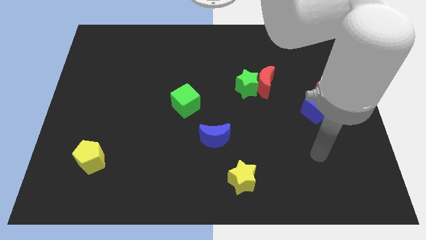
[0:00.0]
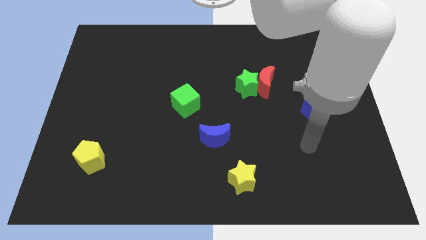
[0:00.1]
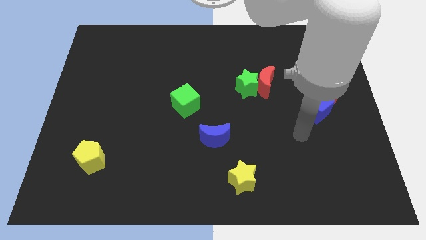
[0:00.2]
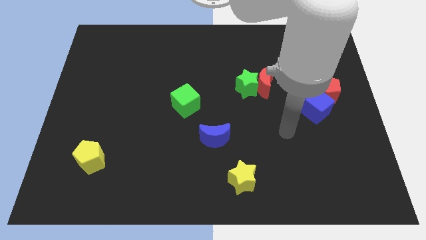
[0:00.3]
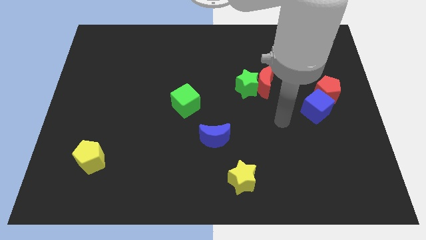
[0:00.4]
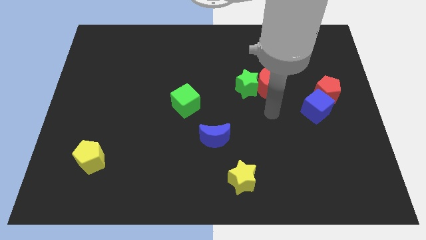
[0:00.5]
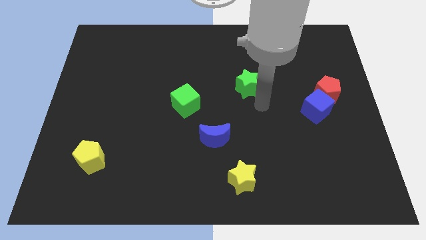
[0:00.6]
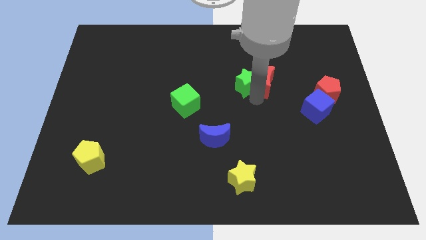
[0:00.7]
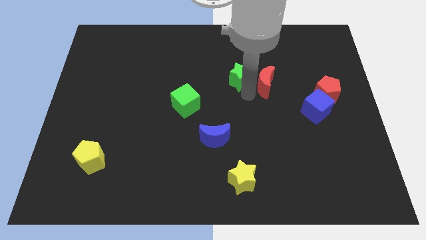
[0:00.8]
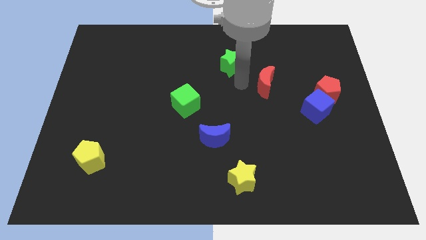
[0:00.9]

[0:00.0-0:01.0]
separate the red moon from the green star

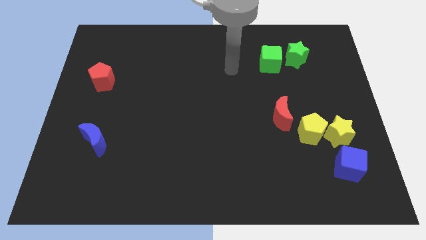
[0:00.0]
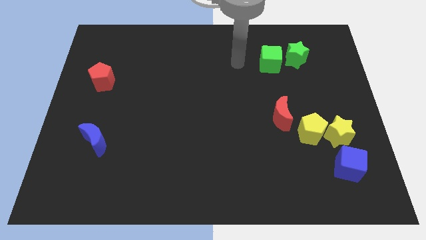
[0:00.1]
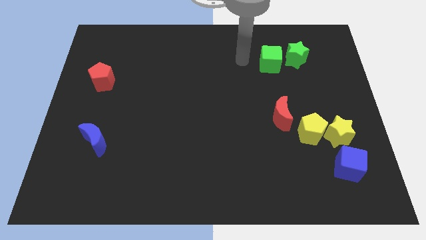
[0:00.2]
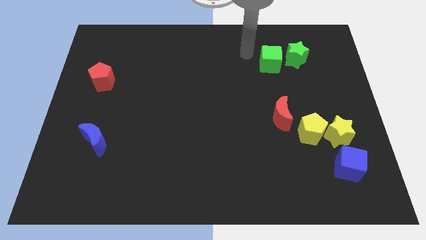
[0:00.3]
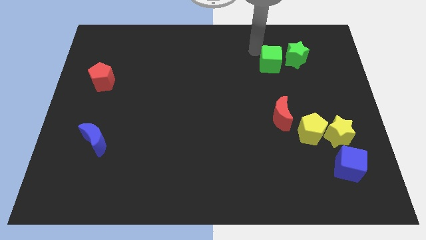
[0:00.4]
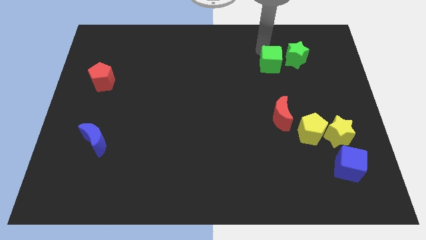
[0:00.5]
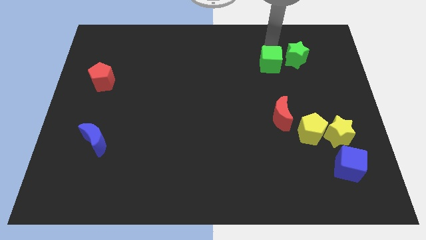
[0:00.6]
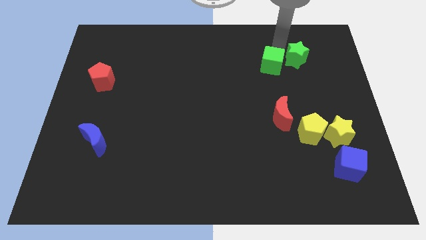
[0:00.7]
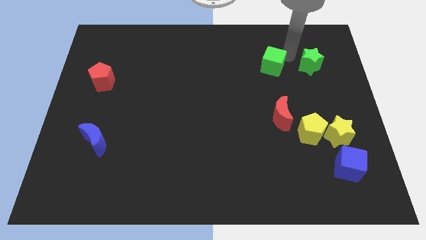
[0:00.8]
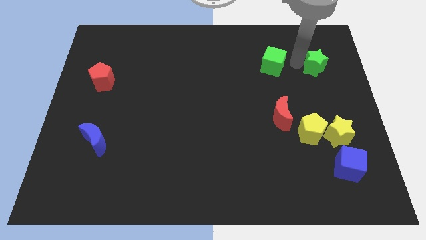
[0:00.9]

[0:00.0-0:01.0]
move the green cube away from the green star

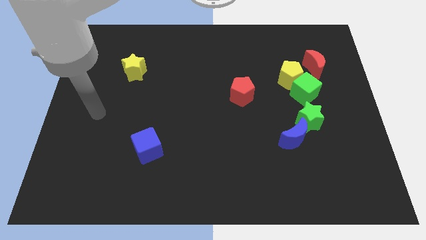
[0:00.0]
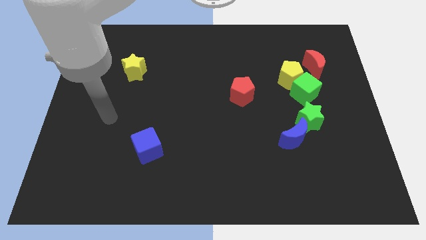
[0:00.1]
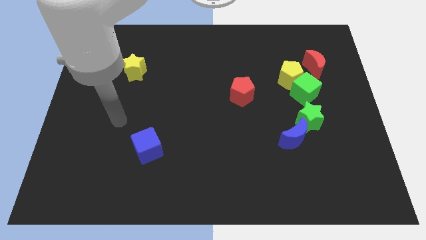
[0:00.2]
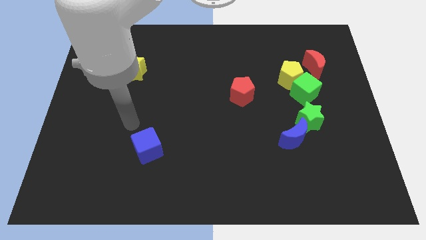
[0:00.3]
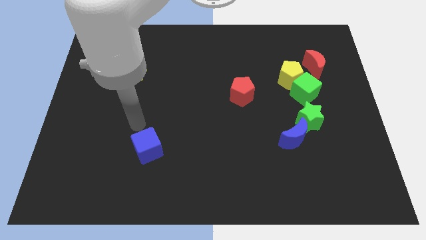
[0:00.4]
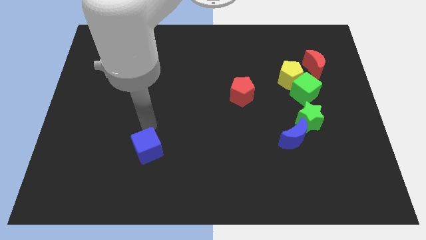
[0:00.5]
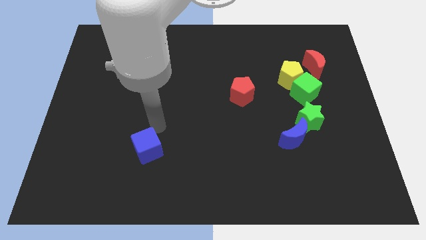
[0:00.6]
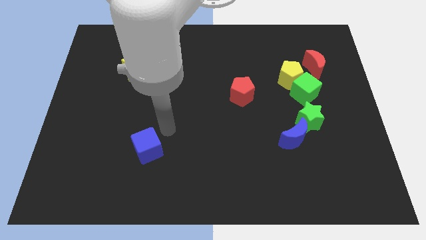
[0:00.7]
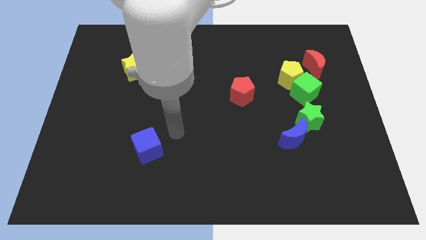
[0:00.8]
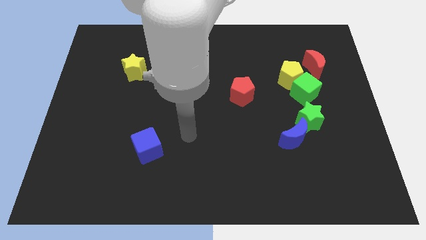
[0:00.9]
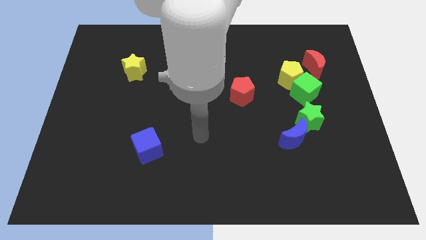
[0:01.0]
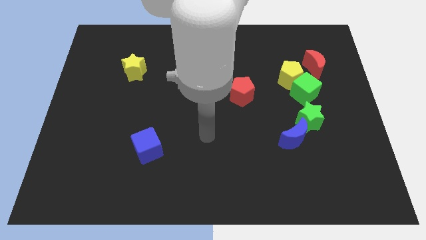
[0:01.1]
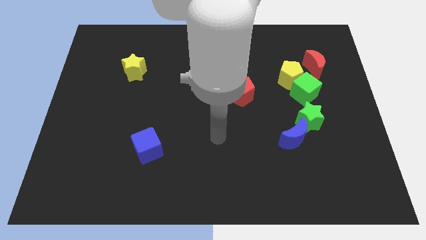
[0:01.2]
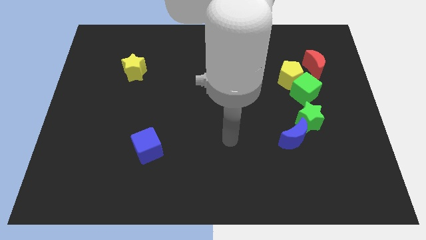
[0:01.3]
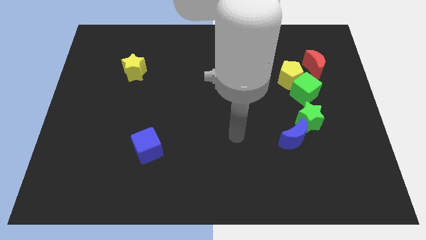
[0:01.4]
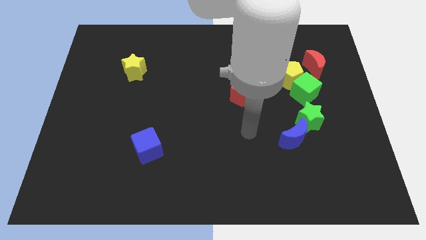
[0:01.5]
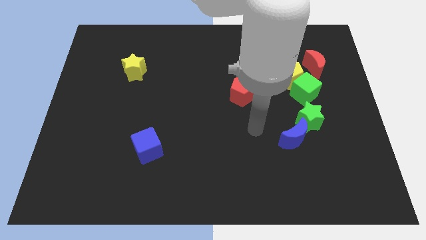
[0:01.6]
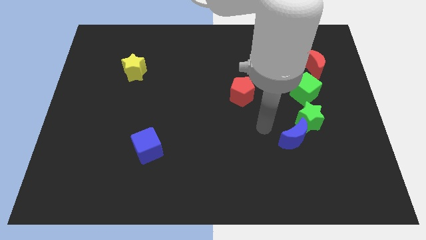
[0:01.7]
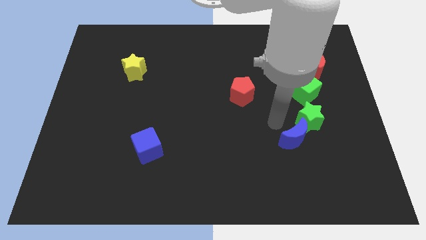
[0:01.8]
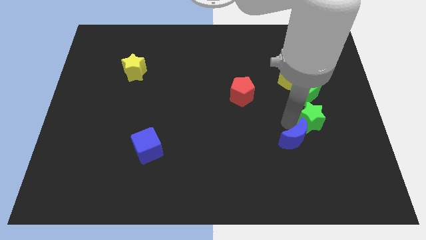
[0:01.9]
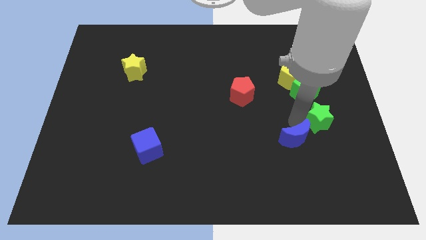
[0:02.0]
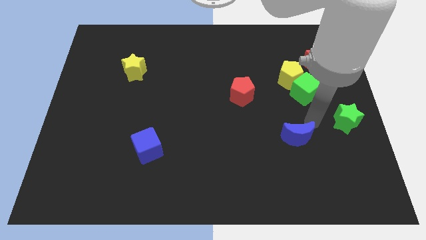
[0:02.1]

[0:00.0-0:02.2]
move the blue moon away from the green star

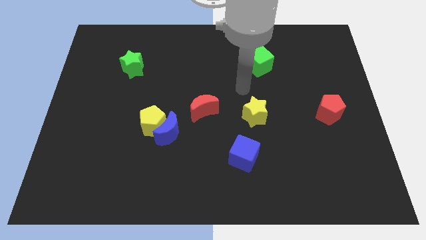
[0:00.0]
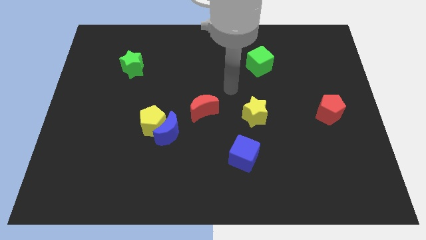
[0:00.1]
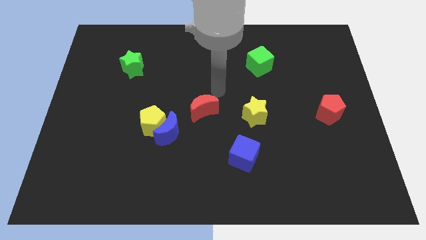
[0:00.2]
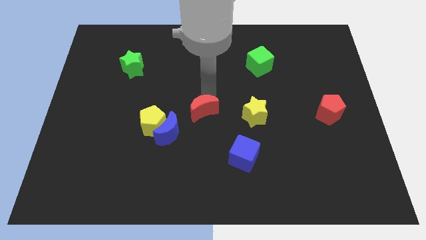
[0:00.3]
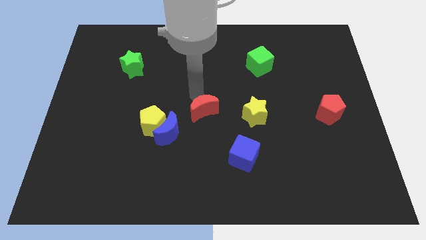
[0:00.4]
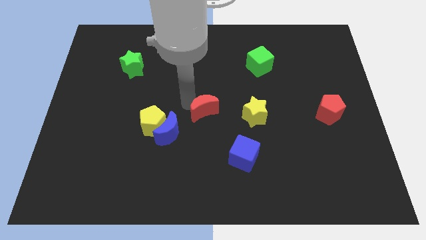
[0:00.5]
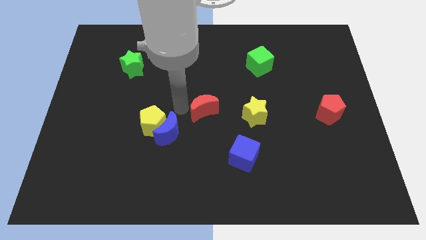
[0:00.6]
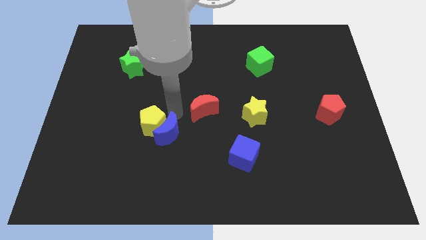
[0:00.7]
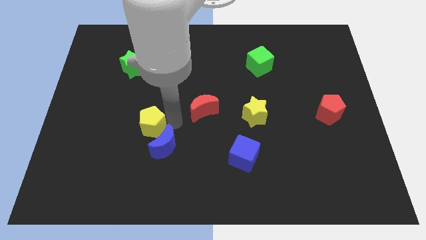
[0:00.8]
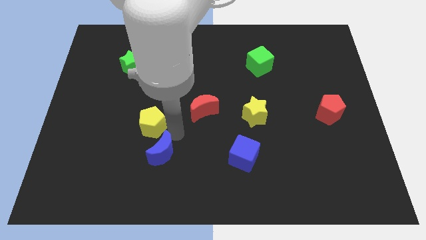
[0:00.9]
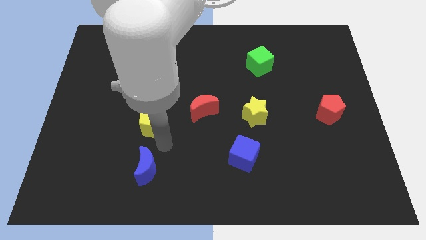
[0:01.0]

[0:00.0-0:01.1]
move the yellow pentagon away from the blue moon

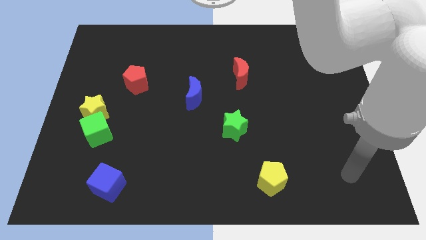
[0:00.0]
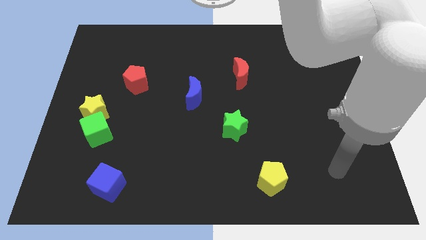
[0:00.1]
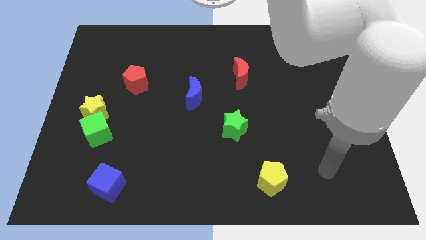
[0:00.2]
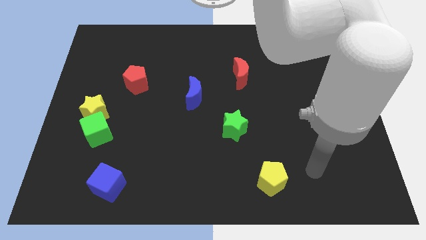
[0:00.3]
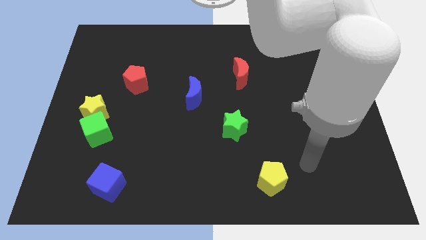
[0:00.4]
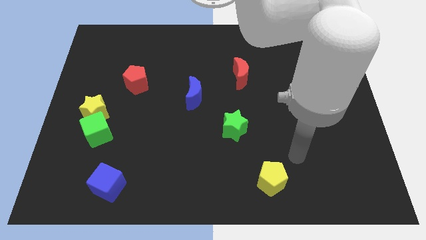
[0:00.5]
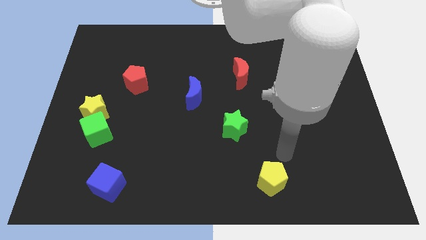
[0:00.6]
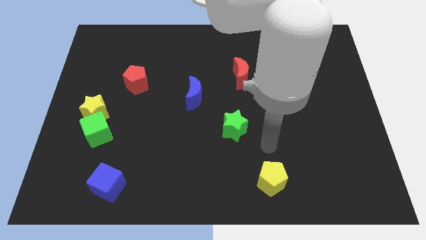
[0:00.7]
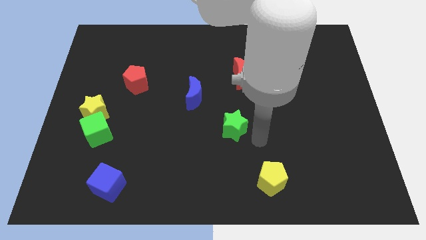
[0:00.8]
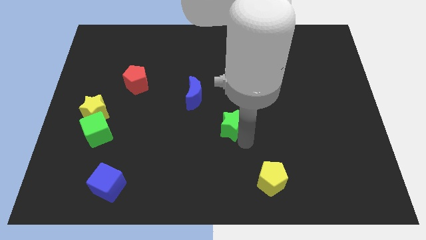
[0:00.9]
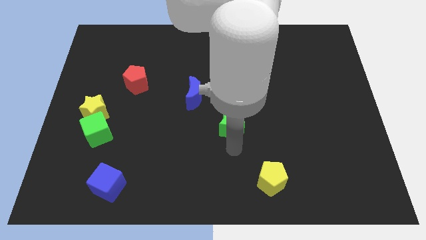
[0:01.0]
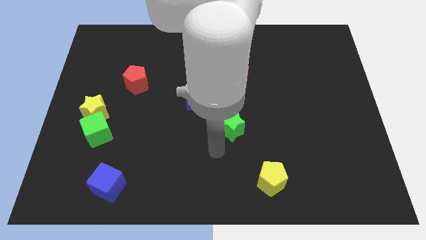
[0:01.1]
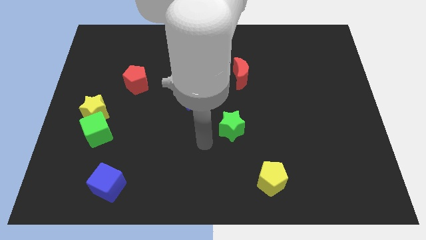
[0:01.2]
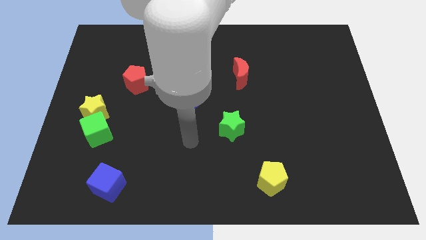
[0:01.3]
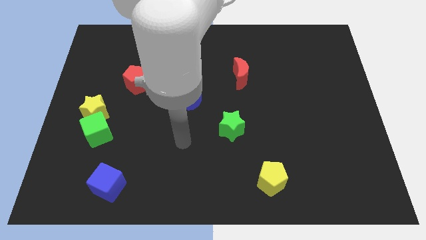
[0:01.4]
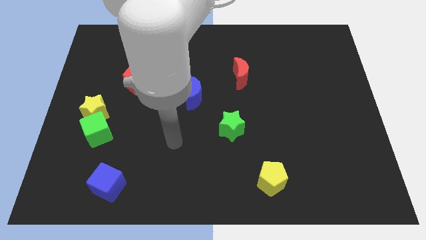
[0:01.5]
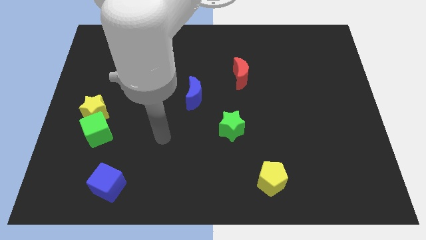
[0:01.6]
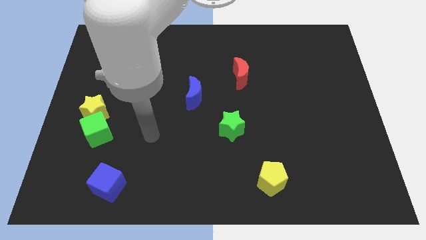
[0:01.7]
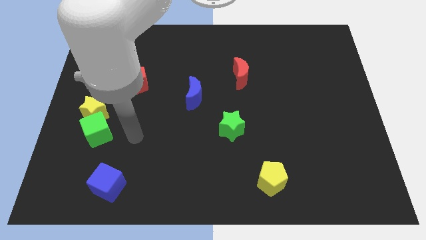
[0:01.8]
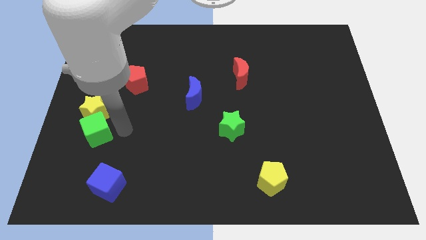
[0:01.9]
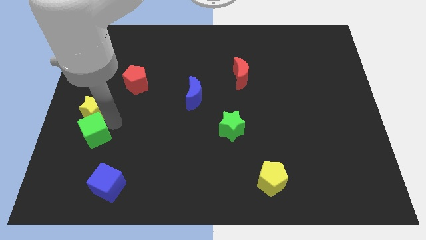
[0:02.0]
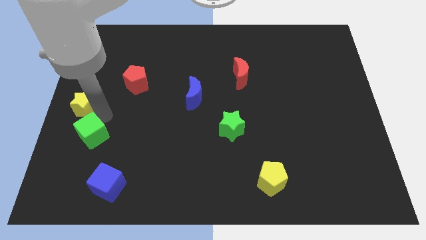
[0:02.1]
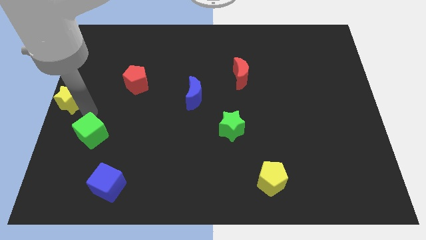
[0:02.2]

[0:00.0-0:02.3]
separate the green cube from the yellow star

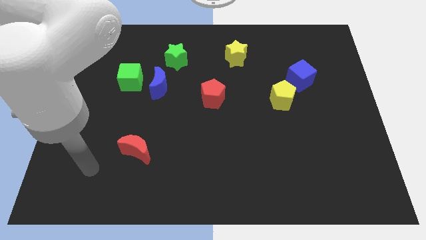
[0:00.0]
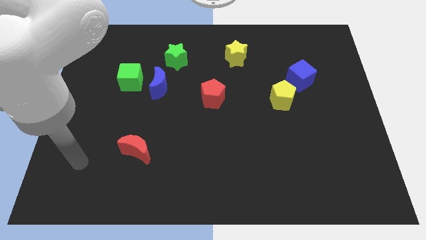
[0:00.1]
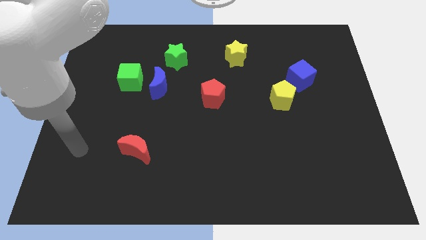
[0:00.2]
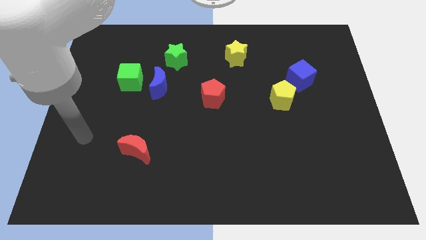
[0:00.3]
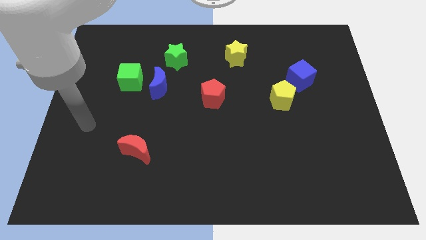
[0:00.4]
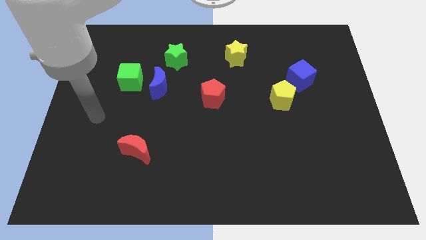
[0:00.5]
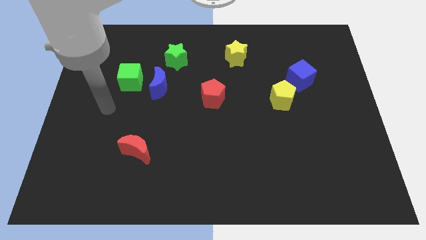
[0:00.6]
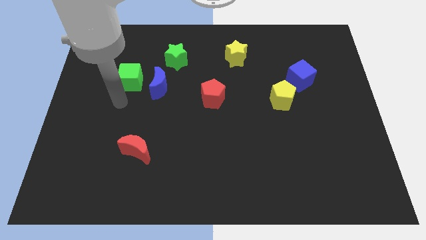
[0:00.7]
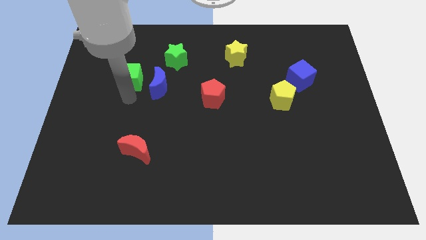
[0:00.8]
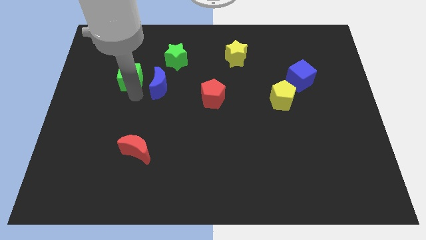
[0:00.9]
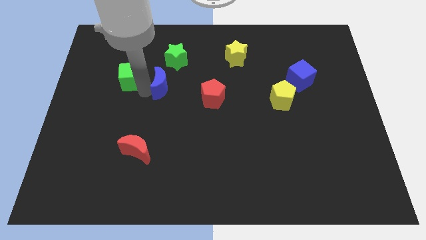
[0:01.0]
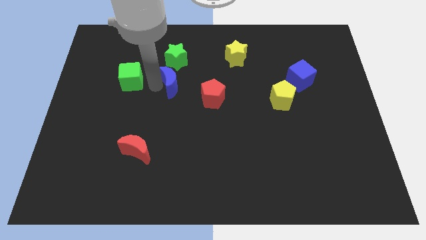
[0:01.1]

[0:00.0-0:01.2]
move the green cube away from the blue moon

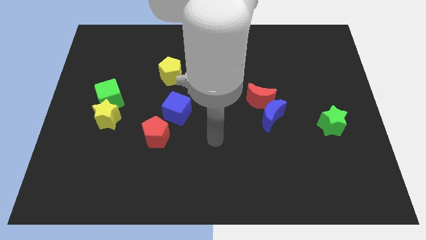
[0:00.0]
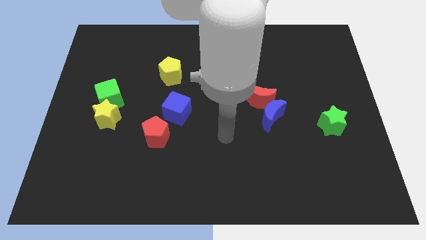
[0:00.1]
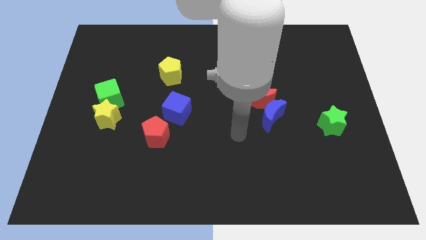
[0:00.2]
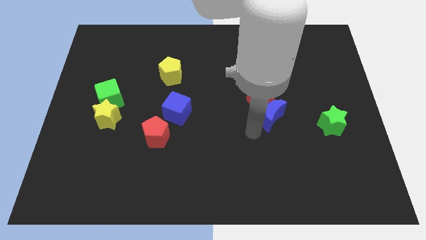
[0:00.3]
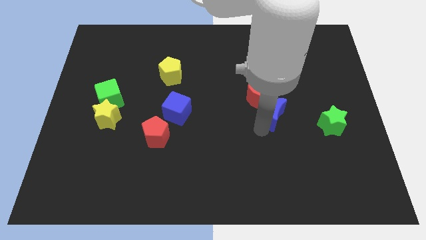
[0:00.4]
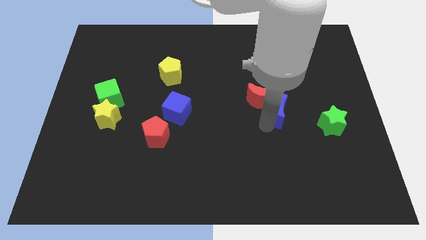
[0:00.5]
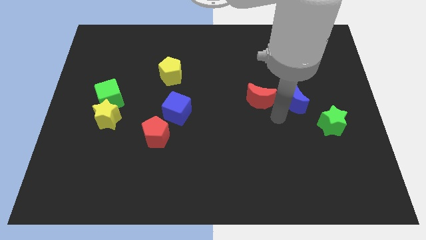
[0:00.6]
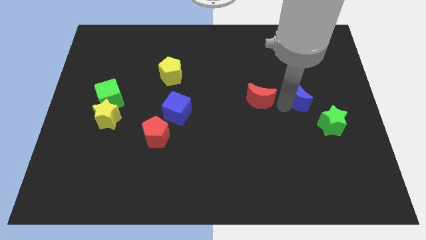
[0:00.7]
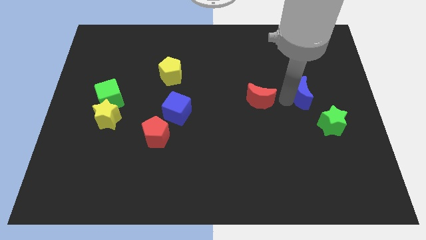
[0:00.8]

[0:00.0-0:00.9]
move the red moon away from the blue moon
